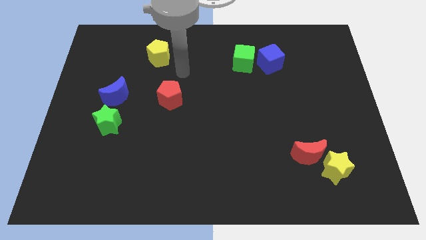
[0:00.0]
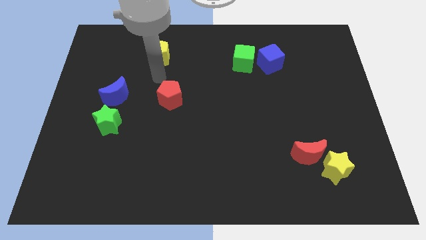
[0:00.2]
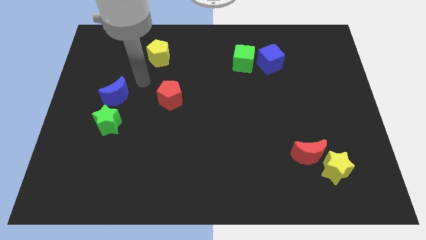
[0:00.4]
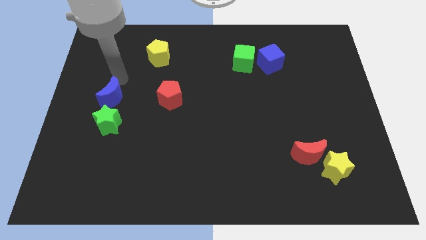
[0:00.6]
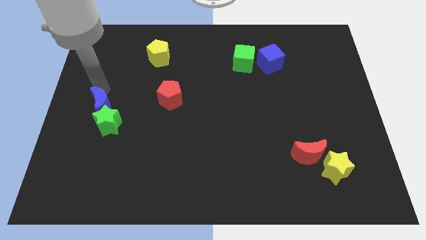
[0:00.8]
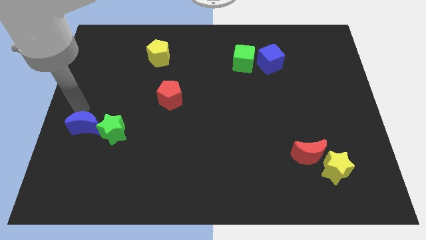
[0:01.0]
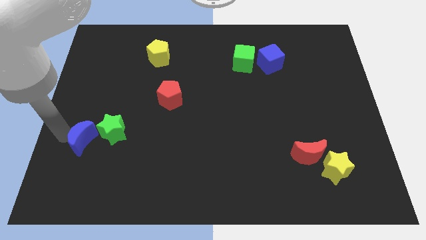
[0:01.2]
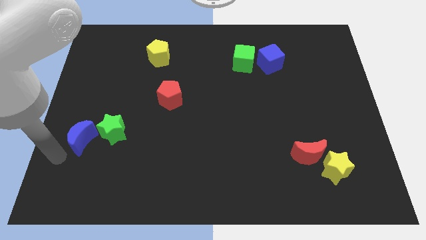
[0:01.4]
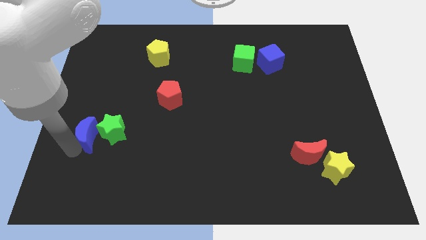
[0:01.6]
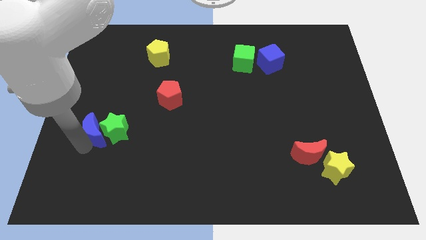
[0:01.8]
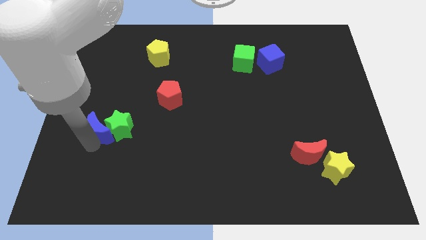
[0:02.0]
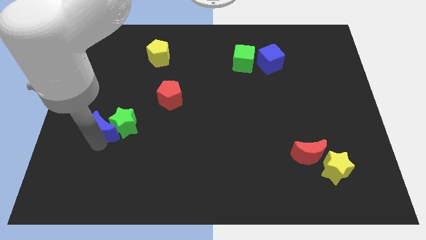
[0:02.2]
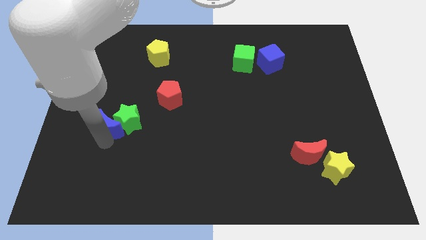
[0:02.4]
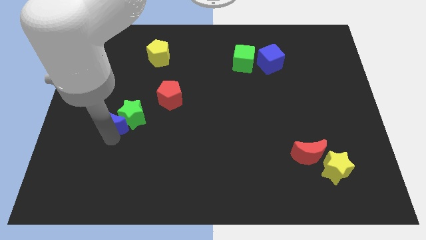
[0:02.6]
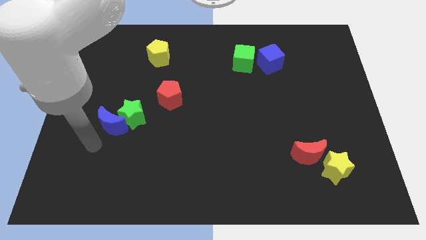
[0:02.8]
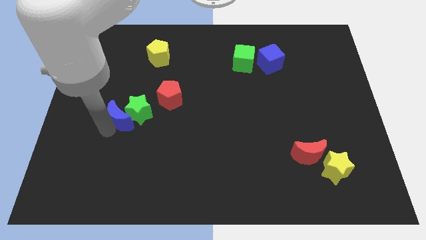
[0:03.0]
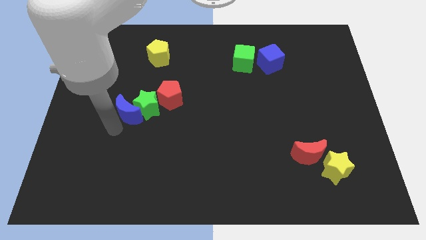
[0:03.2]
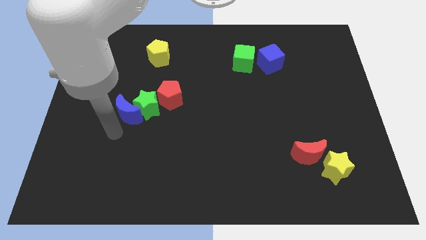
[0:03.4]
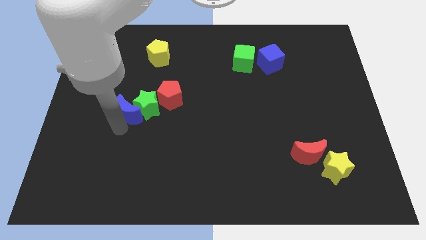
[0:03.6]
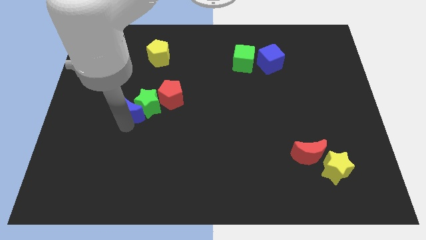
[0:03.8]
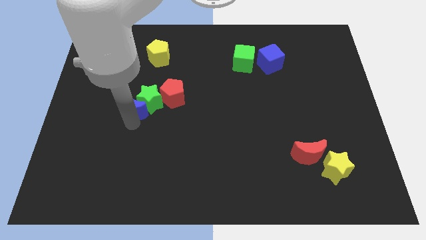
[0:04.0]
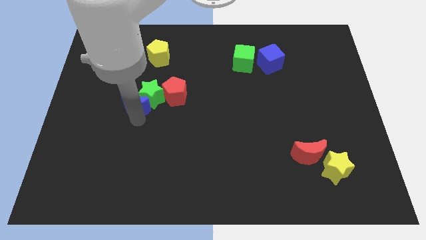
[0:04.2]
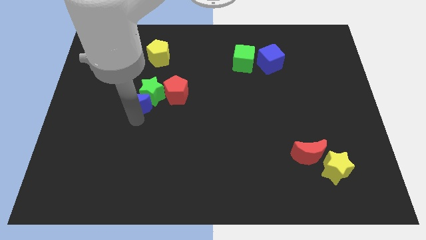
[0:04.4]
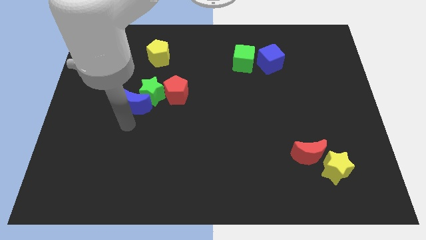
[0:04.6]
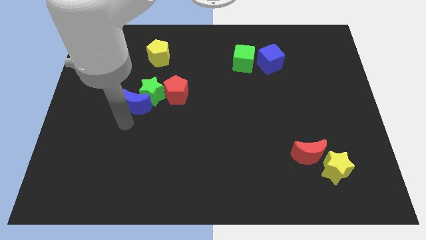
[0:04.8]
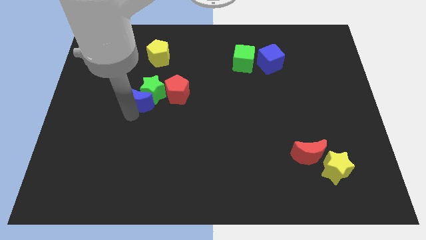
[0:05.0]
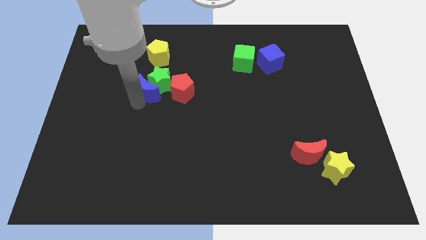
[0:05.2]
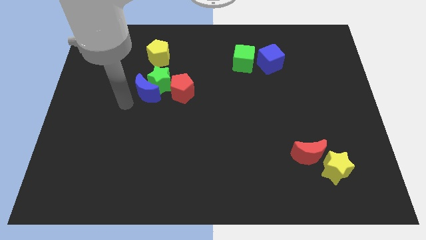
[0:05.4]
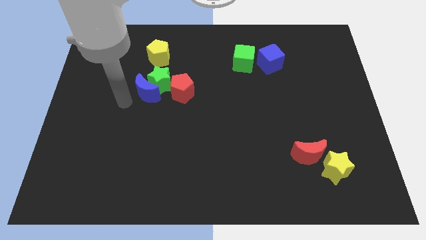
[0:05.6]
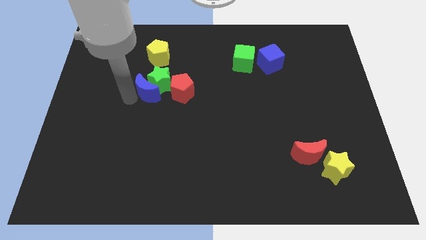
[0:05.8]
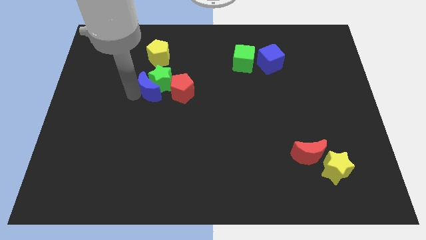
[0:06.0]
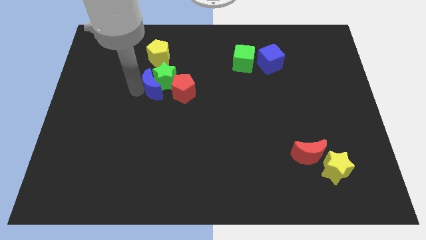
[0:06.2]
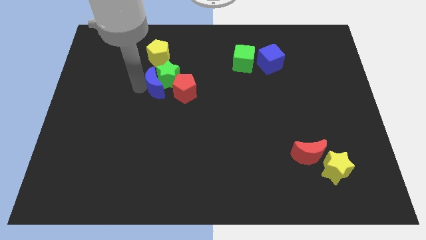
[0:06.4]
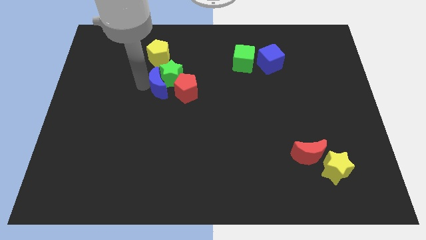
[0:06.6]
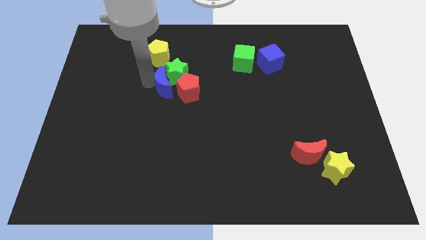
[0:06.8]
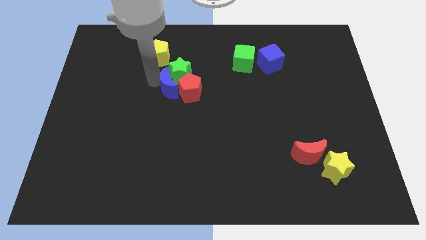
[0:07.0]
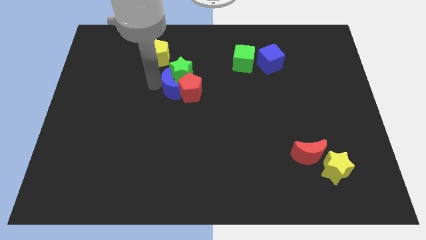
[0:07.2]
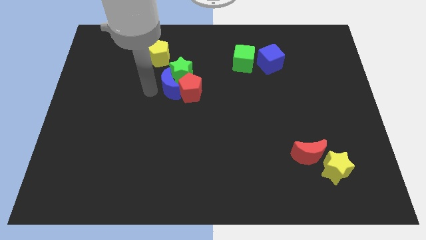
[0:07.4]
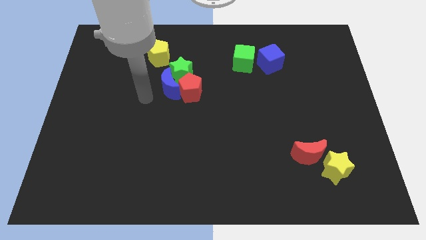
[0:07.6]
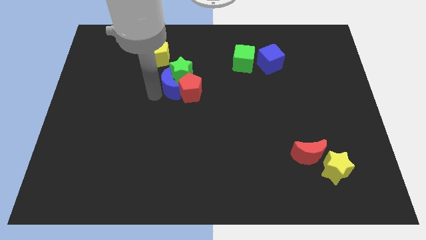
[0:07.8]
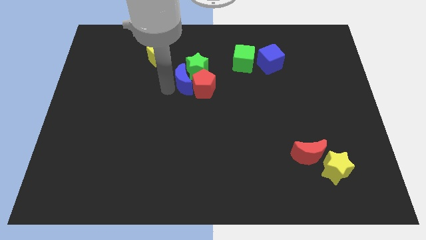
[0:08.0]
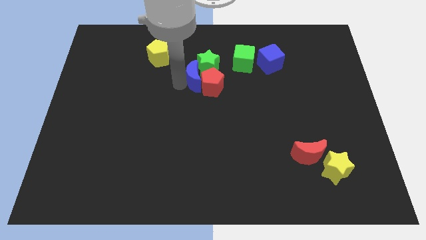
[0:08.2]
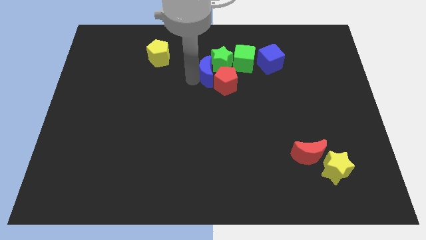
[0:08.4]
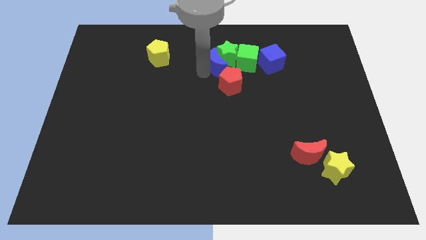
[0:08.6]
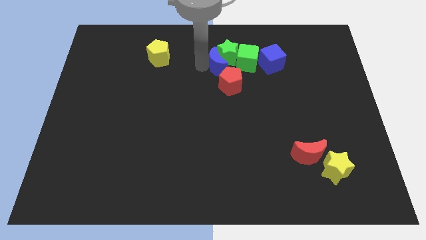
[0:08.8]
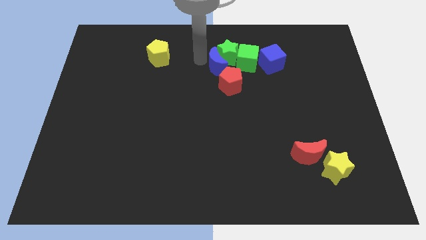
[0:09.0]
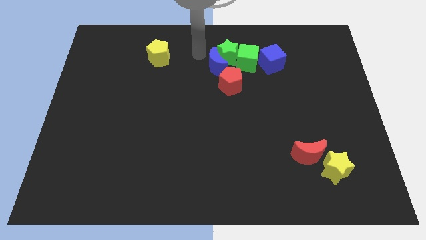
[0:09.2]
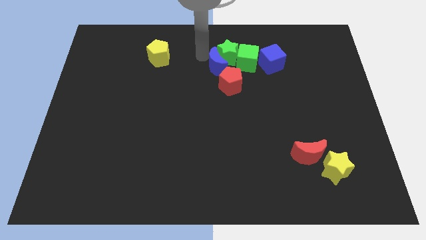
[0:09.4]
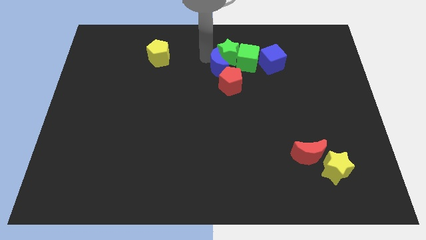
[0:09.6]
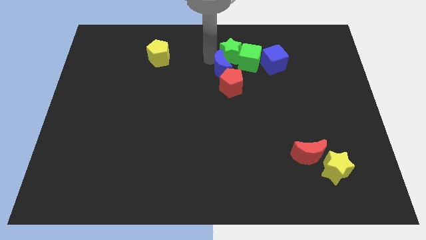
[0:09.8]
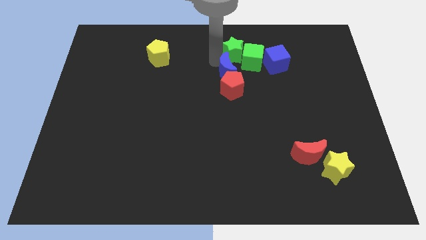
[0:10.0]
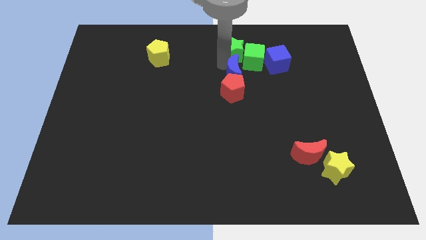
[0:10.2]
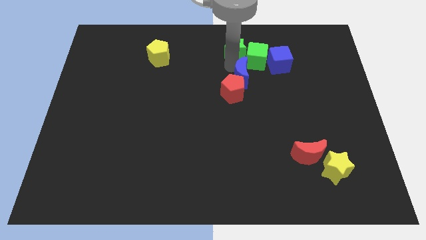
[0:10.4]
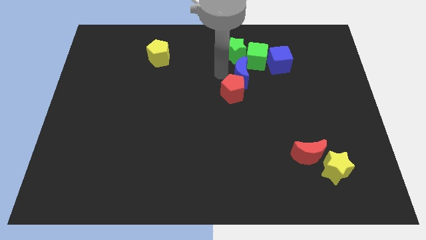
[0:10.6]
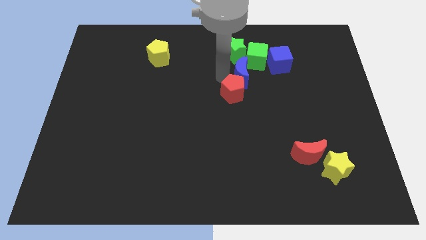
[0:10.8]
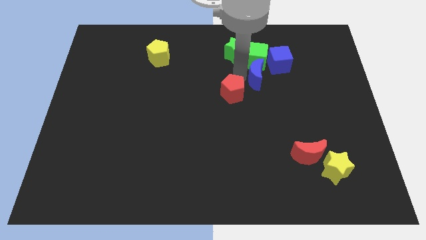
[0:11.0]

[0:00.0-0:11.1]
slide the blue moon diagonally down and to the right of the green cube

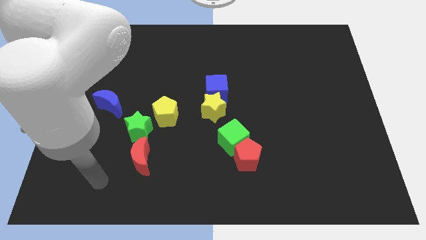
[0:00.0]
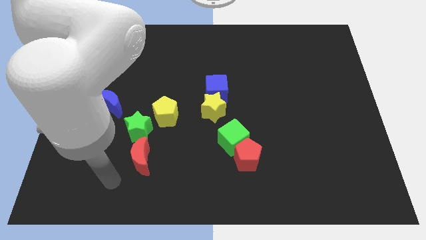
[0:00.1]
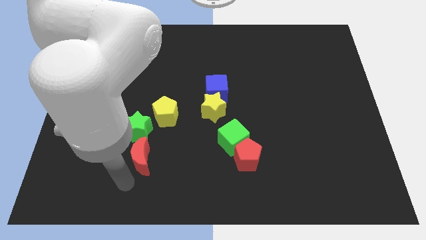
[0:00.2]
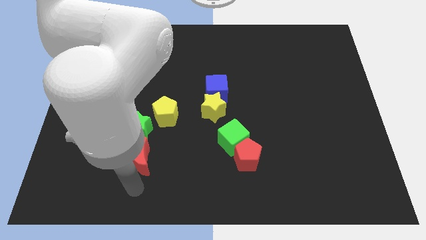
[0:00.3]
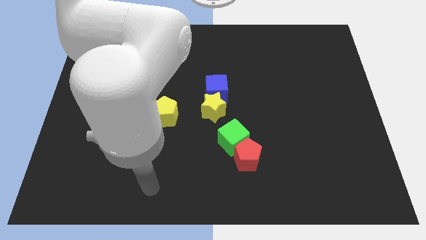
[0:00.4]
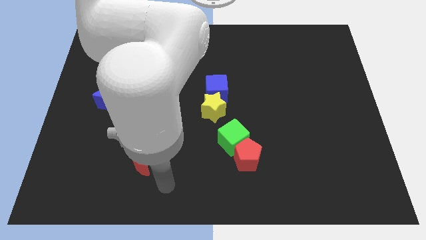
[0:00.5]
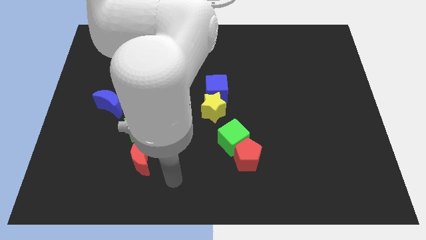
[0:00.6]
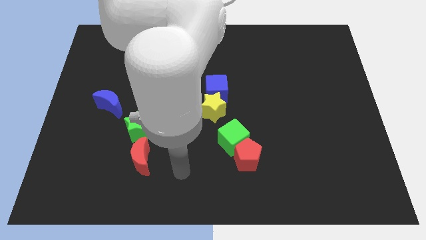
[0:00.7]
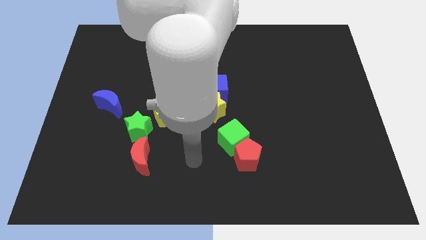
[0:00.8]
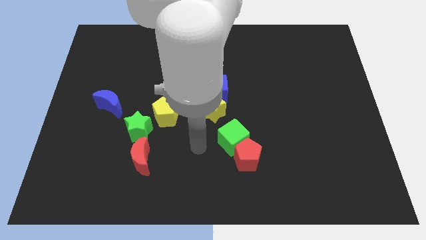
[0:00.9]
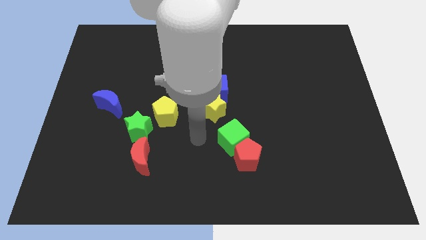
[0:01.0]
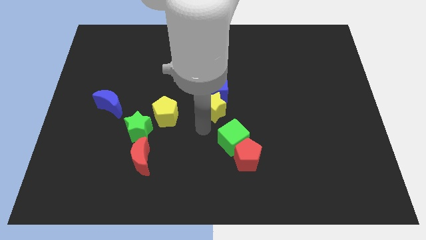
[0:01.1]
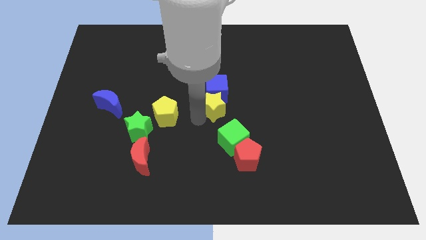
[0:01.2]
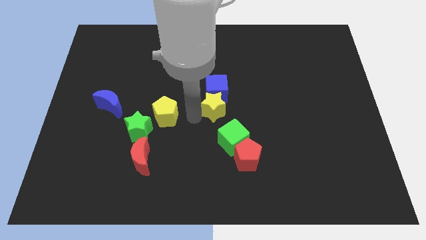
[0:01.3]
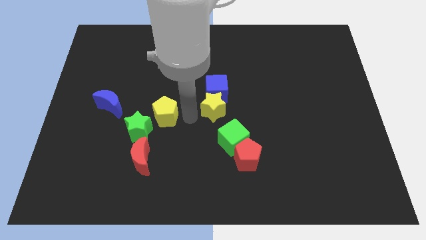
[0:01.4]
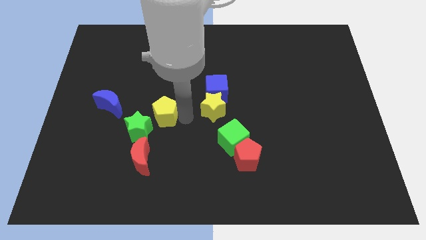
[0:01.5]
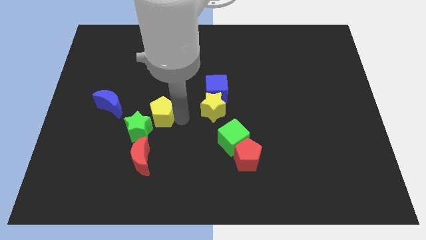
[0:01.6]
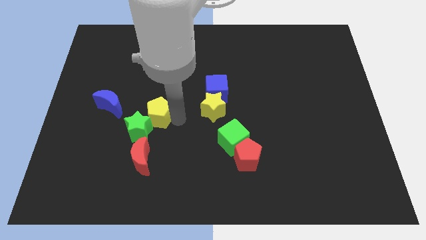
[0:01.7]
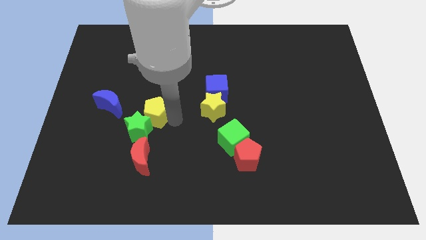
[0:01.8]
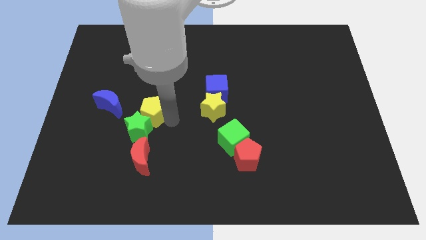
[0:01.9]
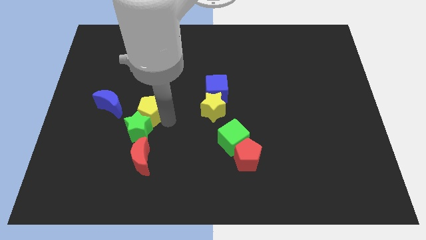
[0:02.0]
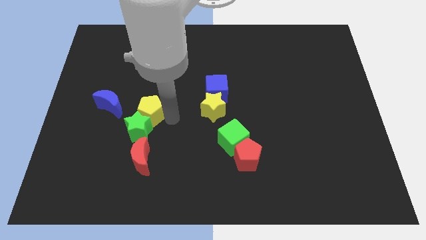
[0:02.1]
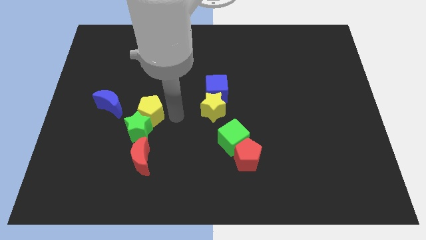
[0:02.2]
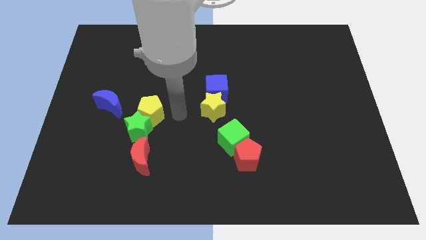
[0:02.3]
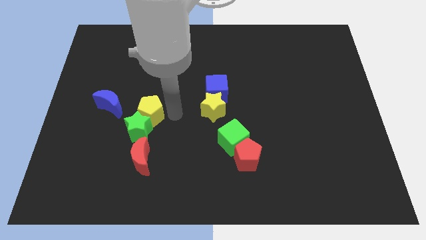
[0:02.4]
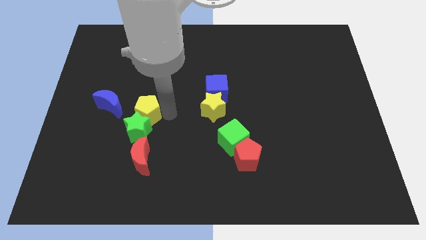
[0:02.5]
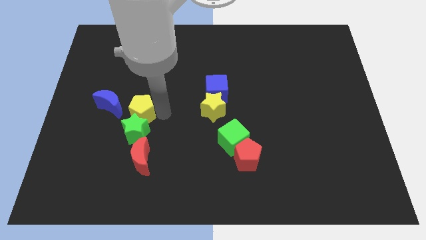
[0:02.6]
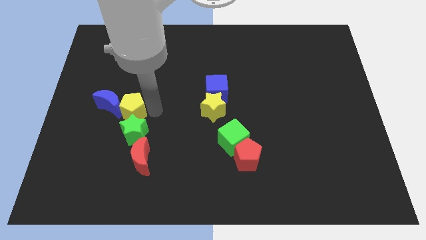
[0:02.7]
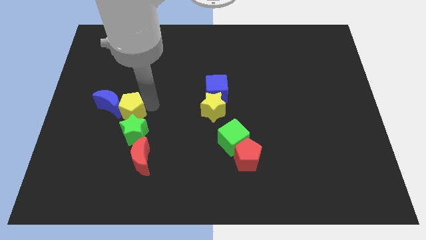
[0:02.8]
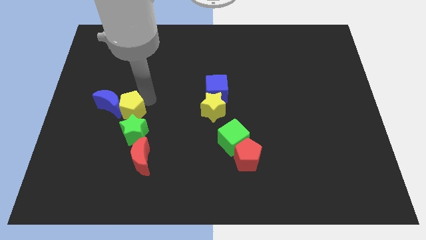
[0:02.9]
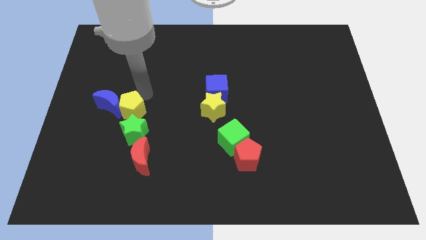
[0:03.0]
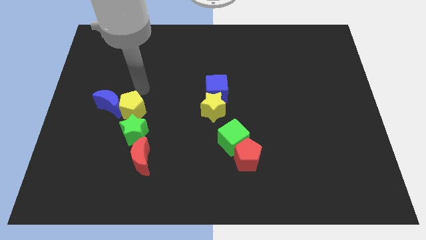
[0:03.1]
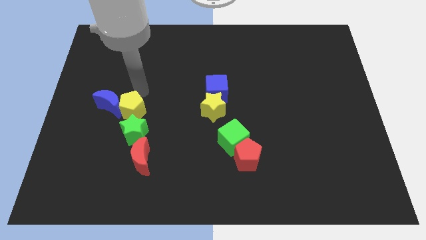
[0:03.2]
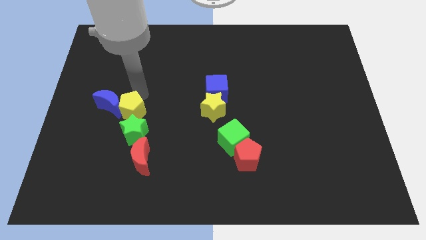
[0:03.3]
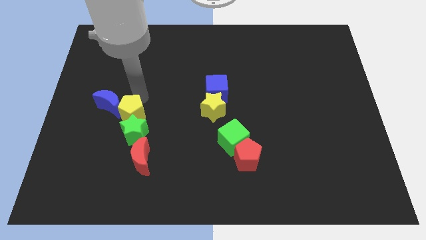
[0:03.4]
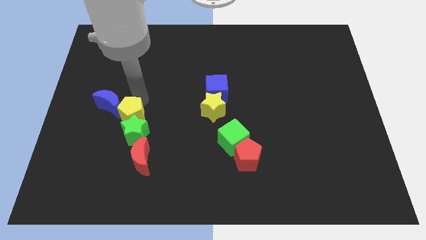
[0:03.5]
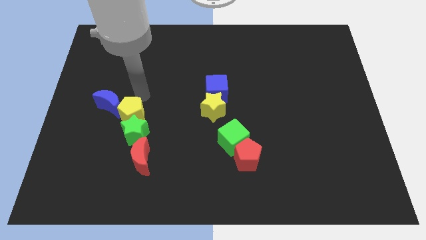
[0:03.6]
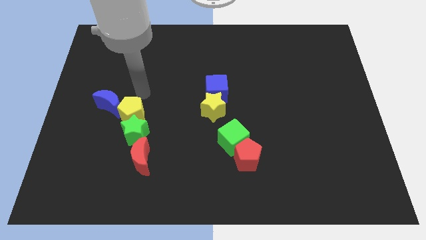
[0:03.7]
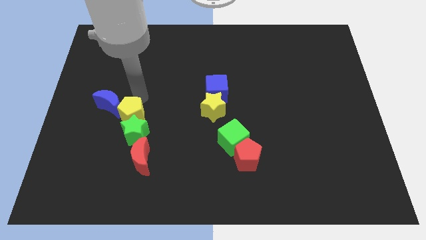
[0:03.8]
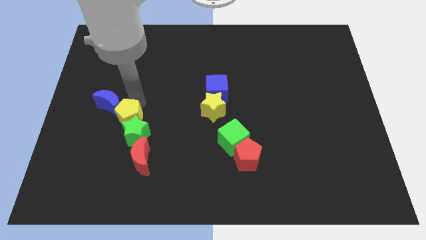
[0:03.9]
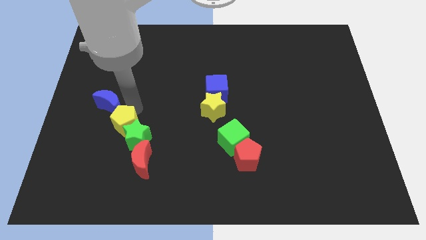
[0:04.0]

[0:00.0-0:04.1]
push the yellow pentagon to the top left side of the red moon
